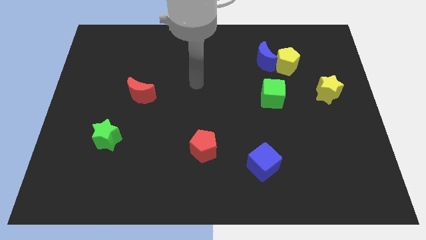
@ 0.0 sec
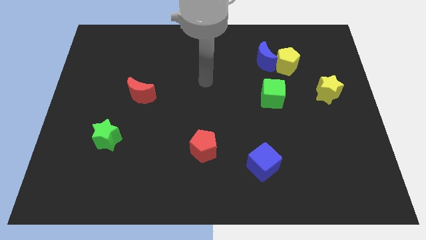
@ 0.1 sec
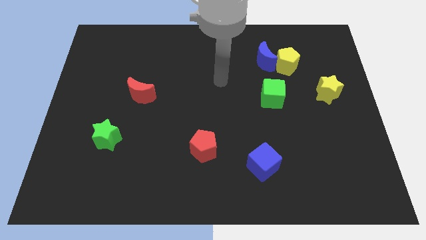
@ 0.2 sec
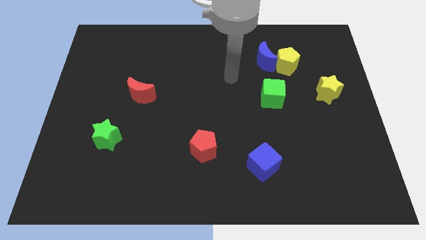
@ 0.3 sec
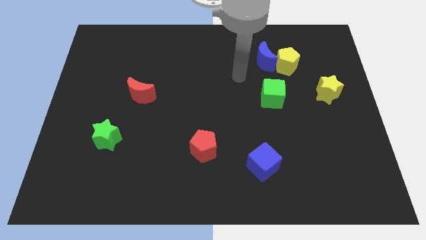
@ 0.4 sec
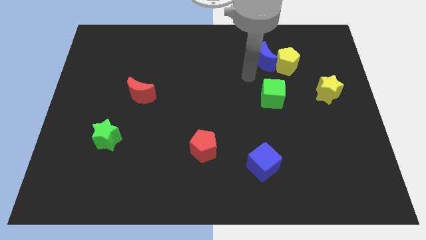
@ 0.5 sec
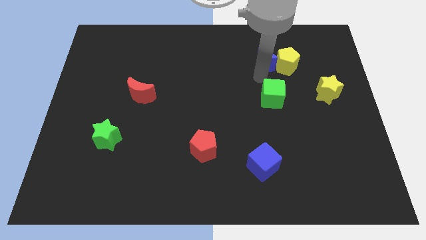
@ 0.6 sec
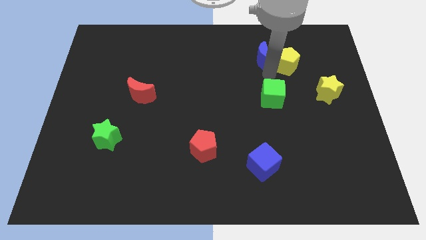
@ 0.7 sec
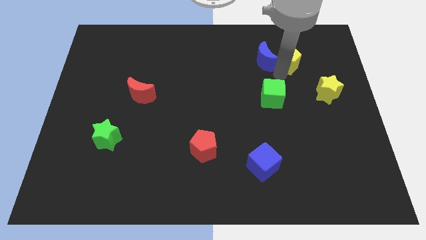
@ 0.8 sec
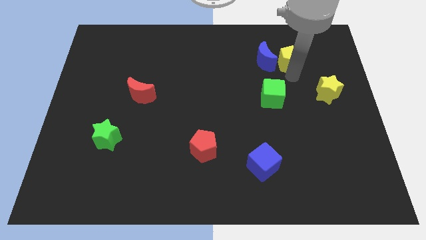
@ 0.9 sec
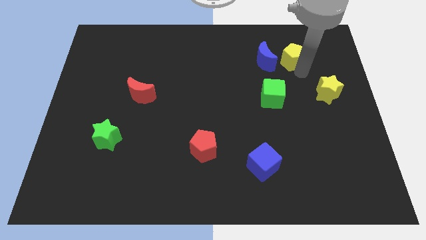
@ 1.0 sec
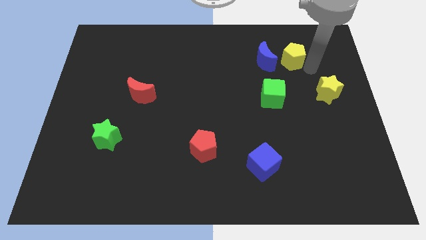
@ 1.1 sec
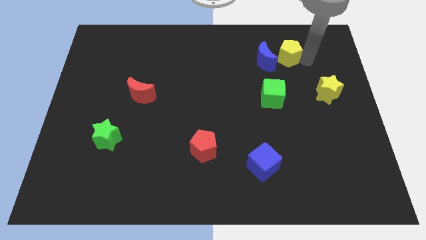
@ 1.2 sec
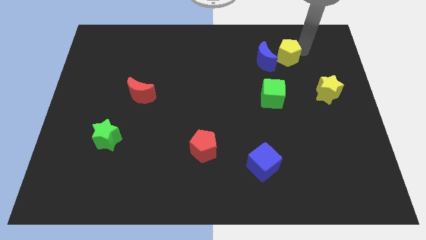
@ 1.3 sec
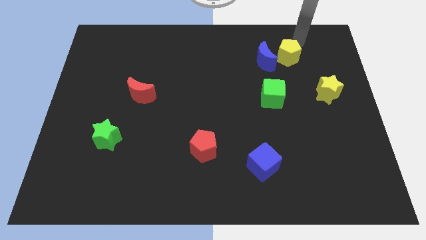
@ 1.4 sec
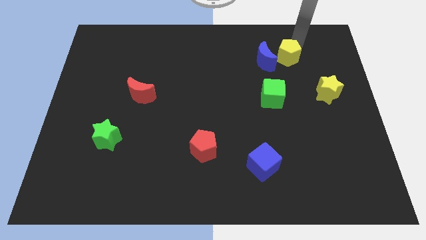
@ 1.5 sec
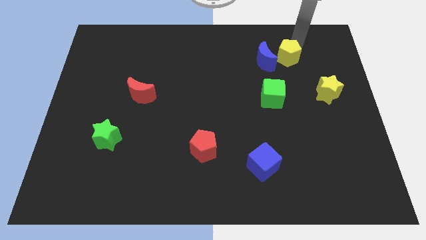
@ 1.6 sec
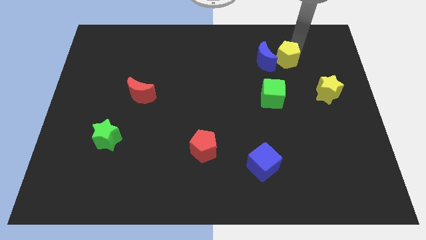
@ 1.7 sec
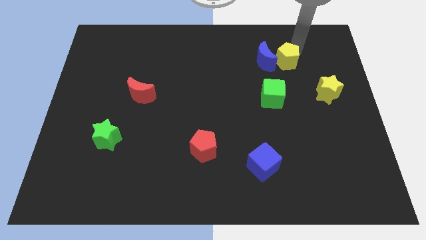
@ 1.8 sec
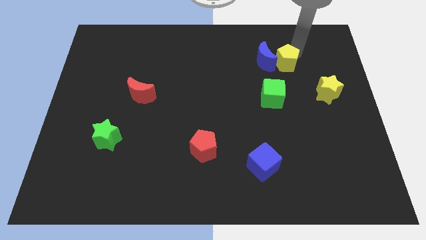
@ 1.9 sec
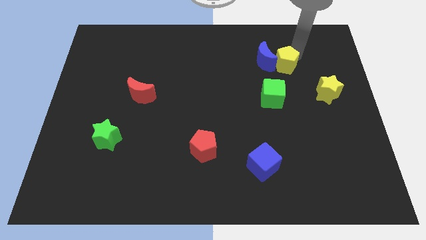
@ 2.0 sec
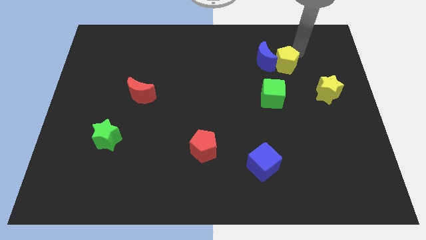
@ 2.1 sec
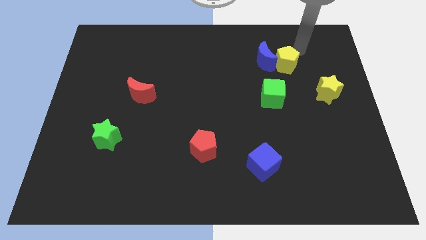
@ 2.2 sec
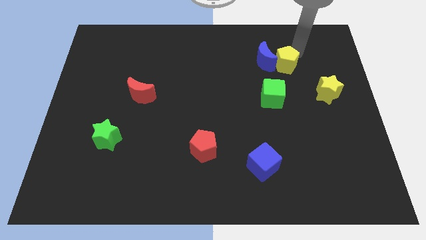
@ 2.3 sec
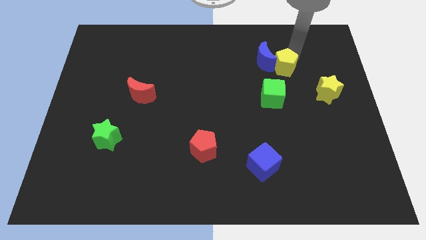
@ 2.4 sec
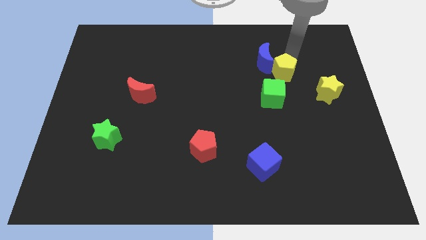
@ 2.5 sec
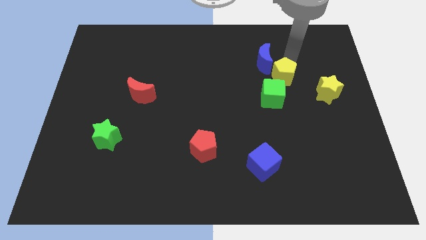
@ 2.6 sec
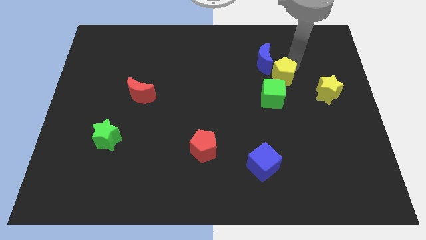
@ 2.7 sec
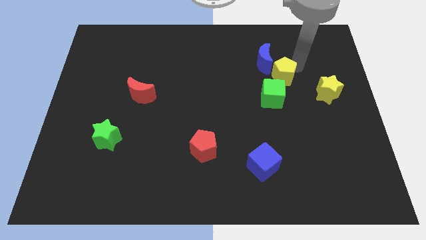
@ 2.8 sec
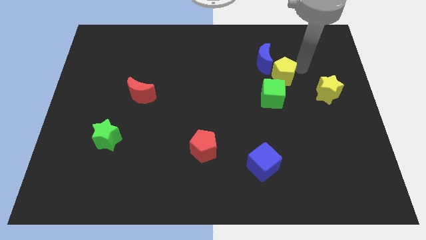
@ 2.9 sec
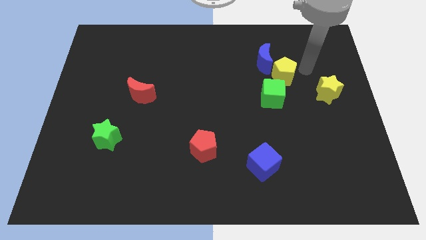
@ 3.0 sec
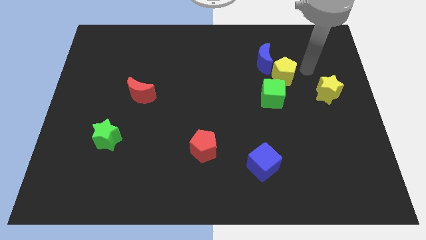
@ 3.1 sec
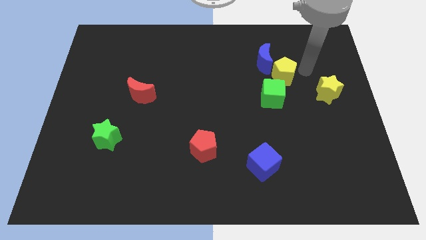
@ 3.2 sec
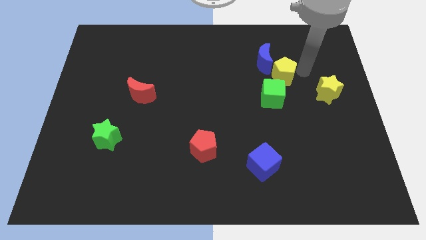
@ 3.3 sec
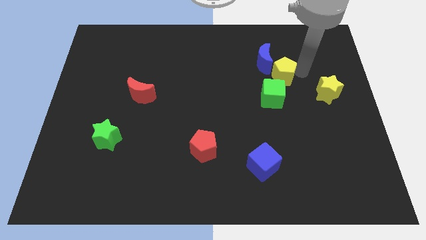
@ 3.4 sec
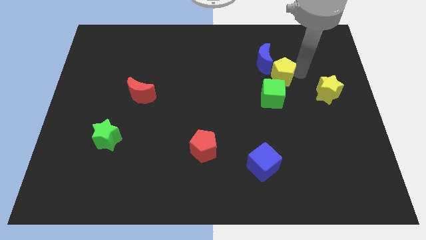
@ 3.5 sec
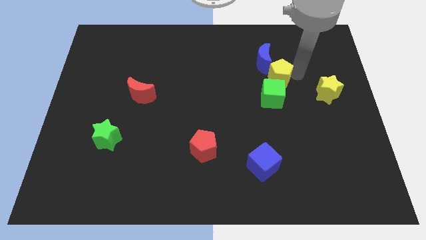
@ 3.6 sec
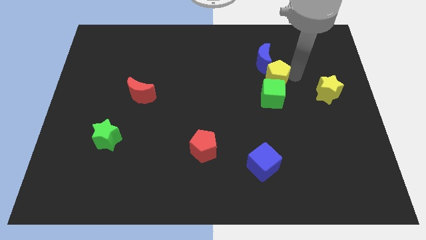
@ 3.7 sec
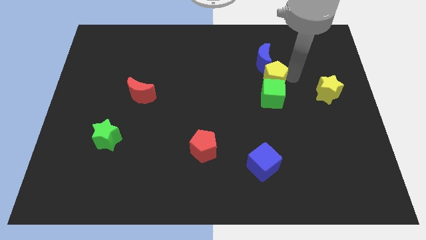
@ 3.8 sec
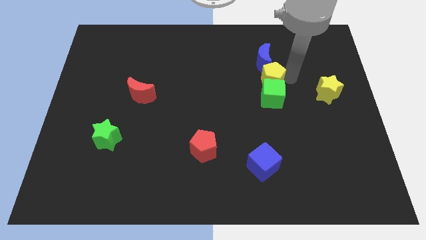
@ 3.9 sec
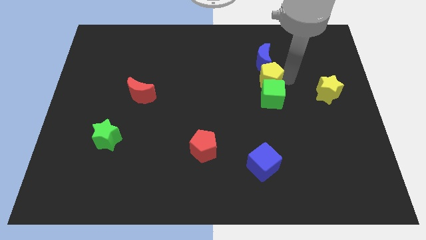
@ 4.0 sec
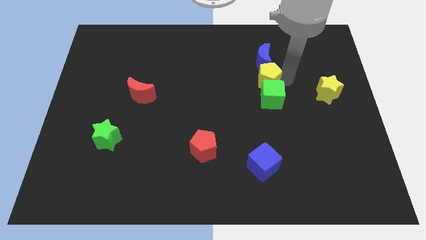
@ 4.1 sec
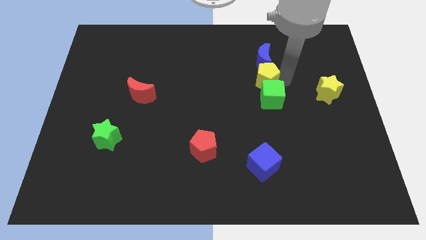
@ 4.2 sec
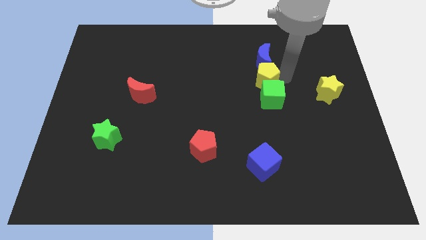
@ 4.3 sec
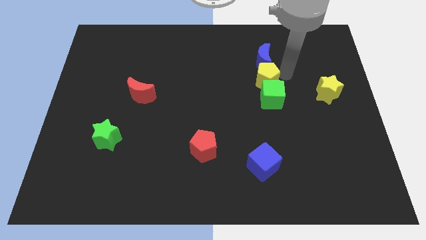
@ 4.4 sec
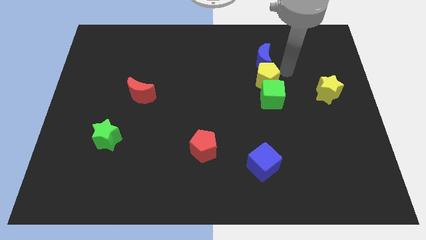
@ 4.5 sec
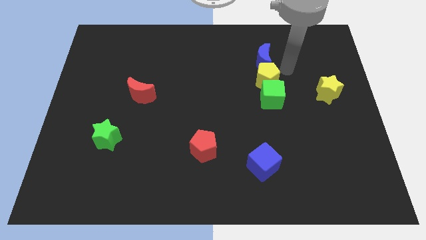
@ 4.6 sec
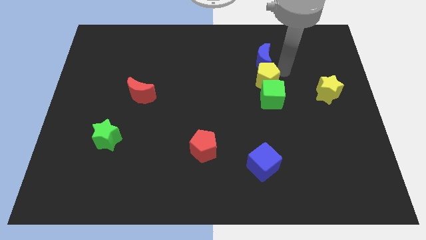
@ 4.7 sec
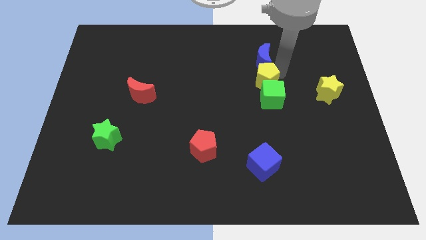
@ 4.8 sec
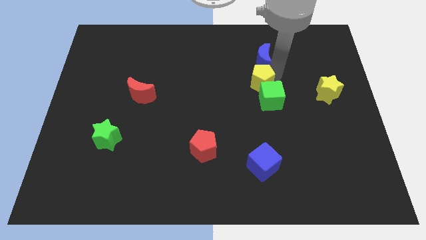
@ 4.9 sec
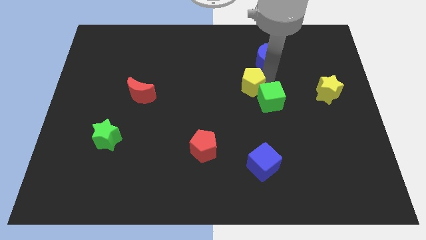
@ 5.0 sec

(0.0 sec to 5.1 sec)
put the yellow pentagon to the middle of the board

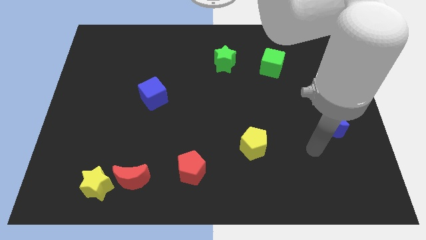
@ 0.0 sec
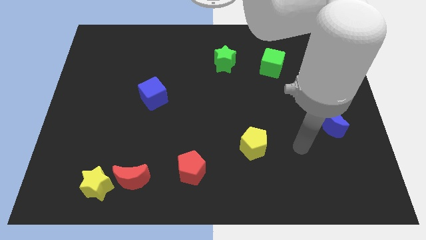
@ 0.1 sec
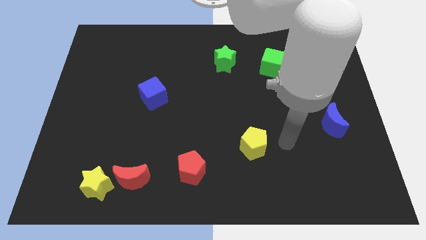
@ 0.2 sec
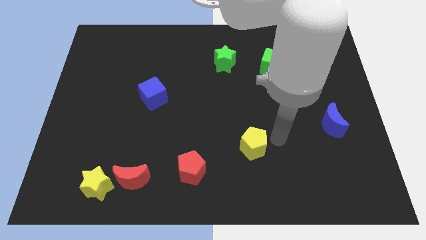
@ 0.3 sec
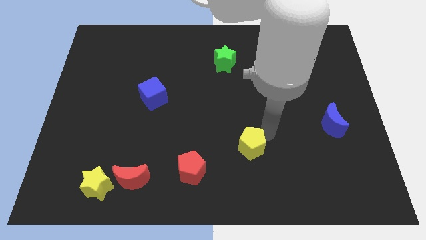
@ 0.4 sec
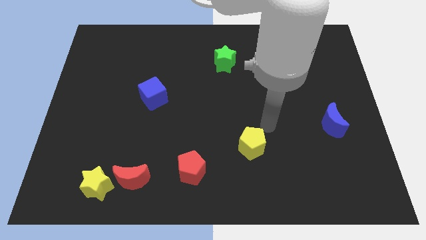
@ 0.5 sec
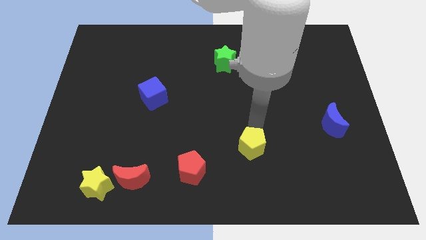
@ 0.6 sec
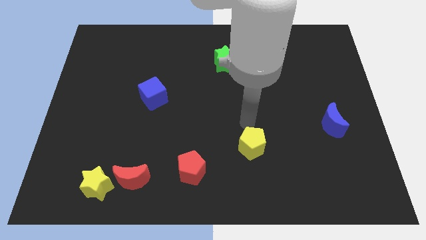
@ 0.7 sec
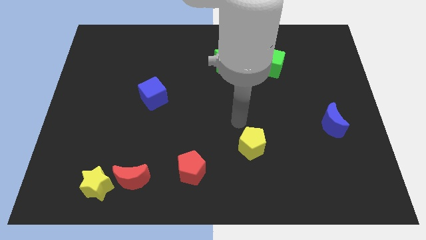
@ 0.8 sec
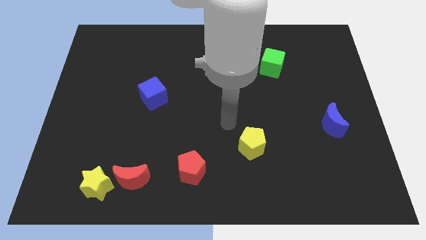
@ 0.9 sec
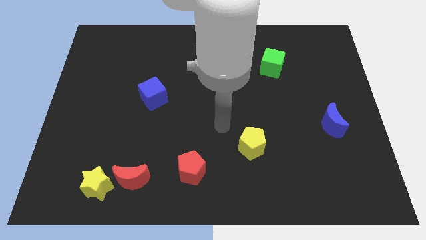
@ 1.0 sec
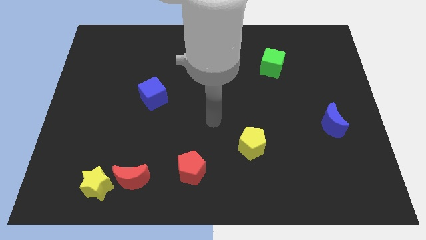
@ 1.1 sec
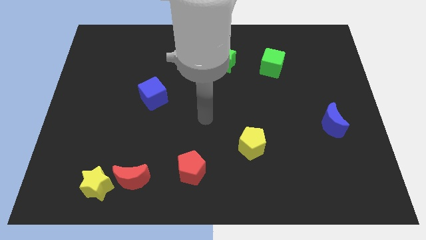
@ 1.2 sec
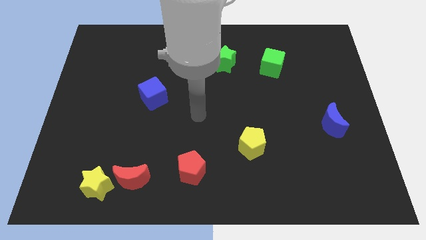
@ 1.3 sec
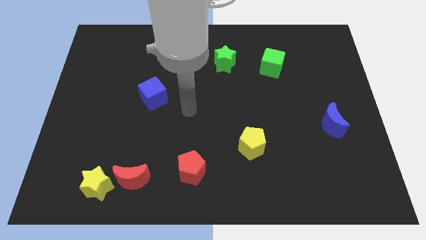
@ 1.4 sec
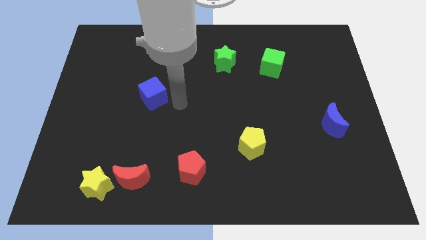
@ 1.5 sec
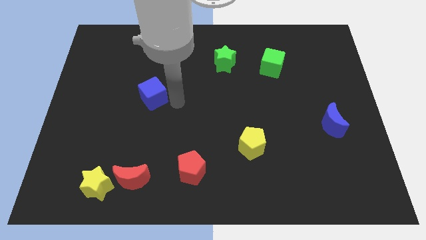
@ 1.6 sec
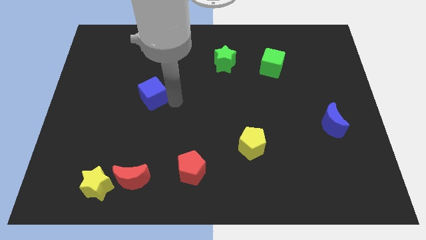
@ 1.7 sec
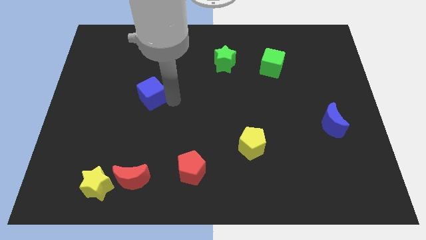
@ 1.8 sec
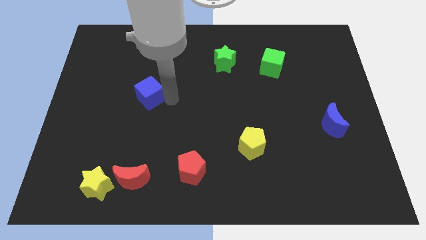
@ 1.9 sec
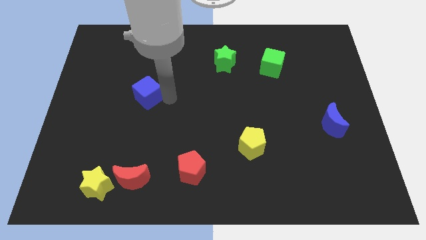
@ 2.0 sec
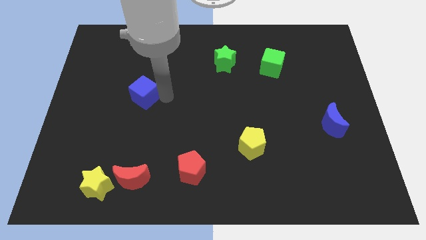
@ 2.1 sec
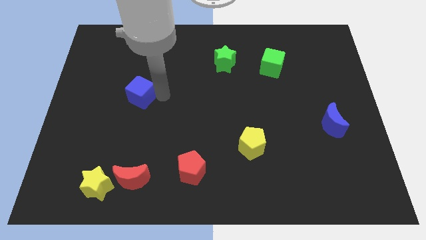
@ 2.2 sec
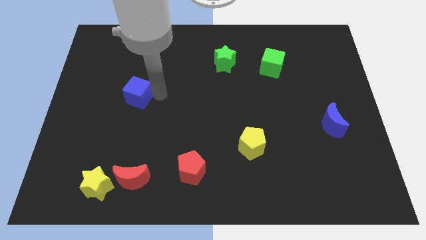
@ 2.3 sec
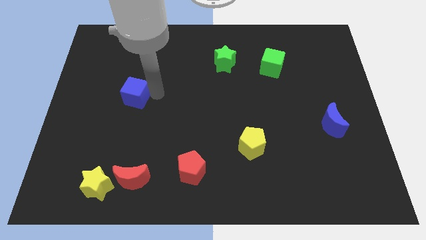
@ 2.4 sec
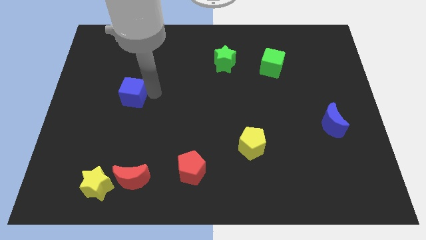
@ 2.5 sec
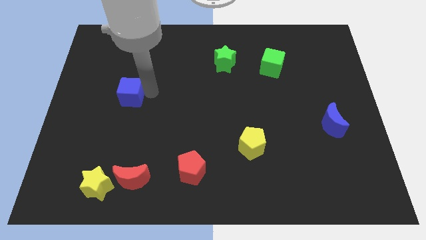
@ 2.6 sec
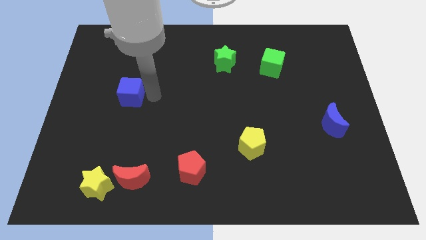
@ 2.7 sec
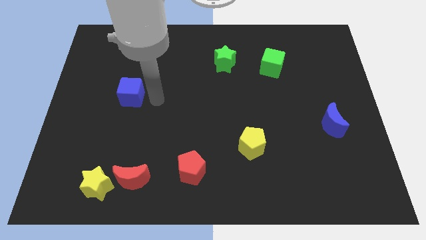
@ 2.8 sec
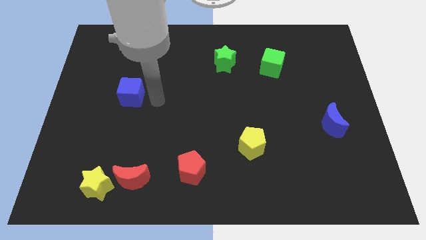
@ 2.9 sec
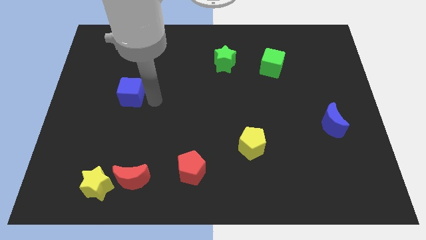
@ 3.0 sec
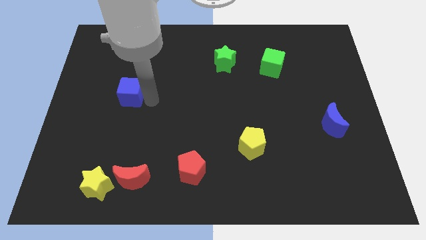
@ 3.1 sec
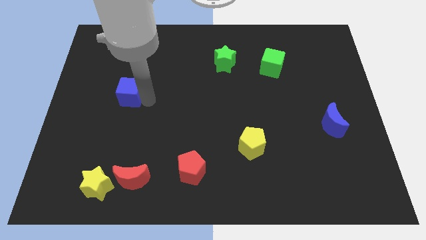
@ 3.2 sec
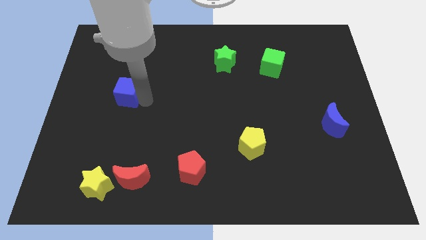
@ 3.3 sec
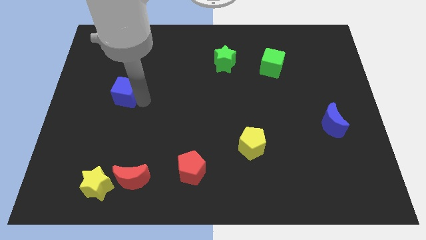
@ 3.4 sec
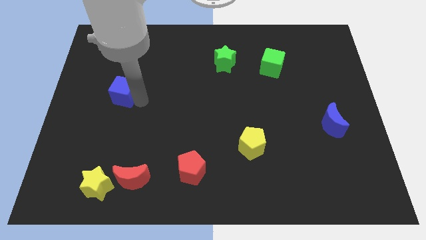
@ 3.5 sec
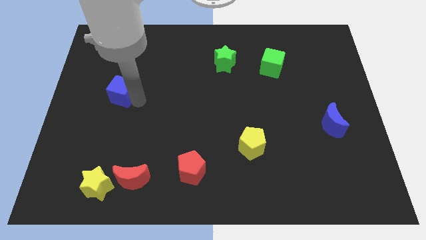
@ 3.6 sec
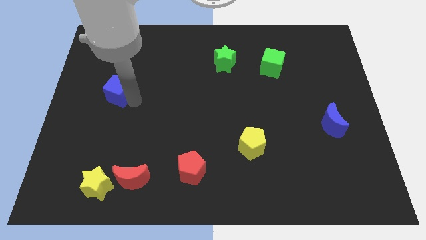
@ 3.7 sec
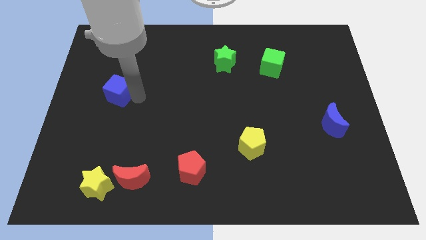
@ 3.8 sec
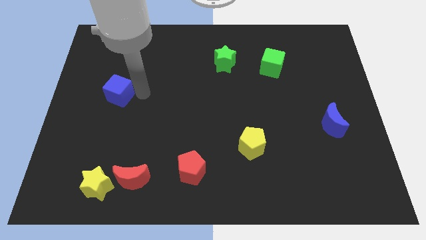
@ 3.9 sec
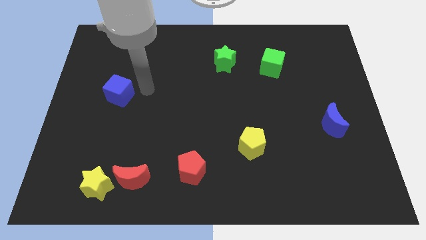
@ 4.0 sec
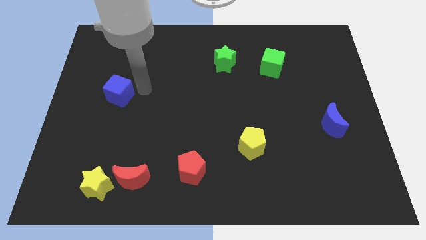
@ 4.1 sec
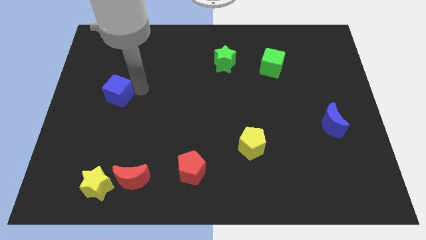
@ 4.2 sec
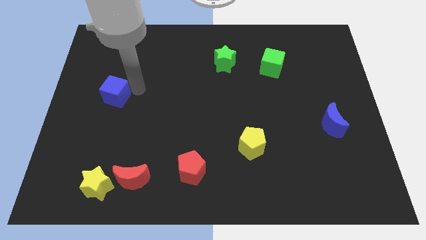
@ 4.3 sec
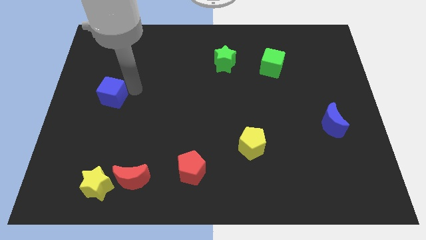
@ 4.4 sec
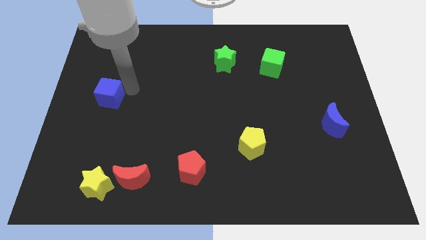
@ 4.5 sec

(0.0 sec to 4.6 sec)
put the blue cube to the left side
